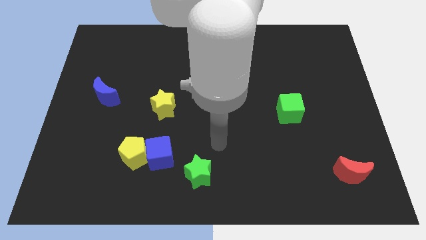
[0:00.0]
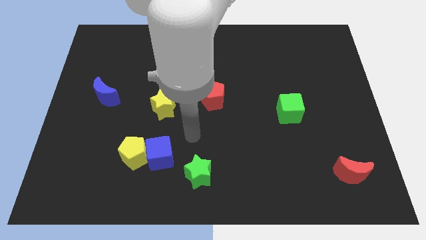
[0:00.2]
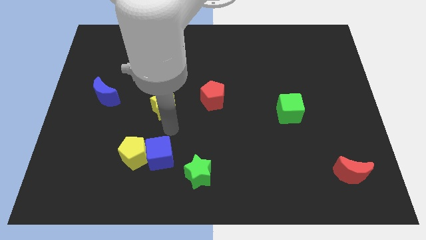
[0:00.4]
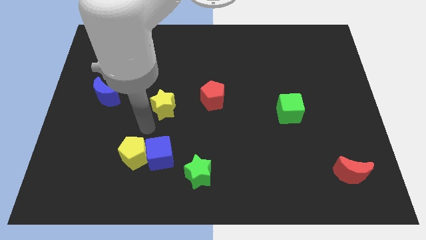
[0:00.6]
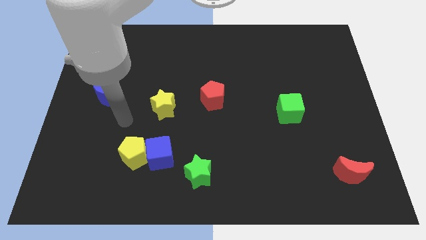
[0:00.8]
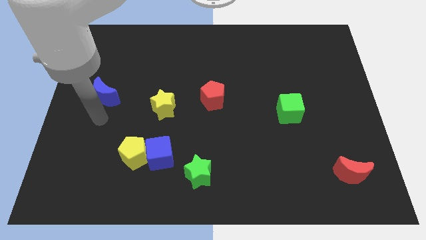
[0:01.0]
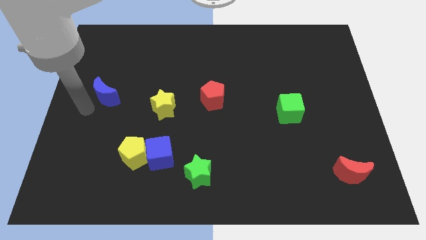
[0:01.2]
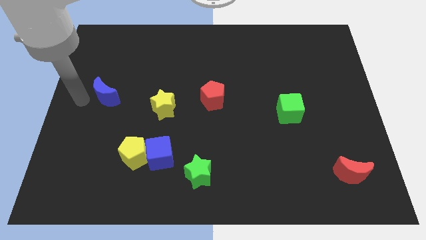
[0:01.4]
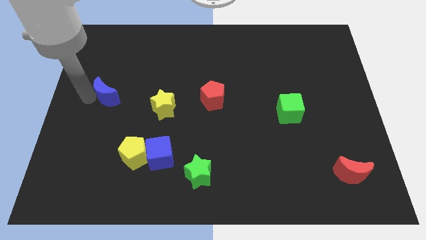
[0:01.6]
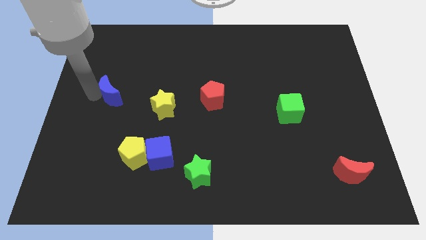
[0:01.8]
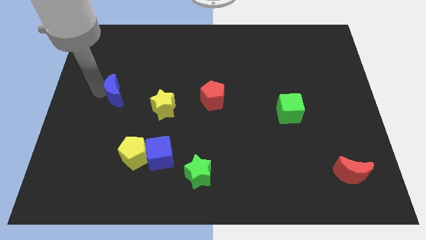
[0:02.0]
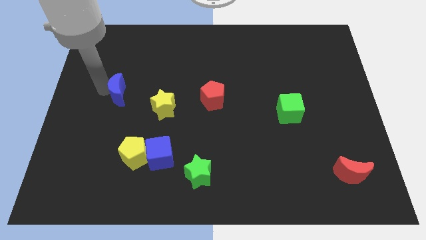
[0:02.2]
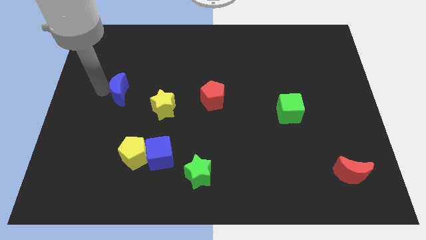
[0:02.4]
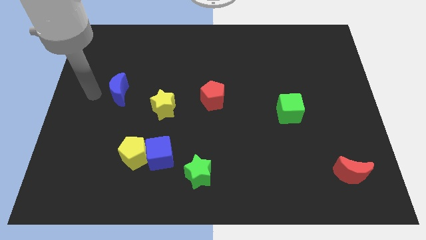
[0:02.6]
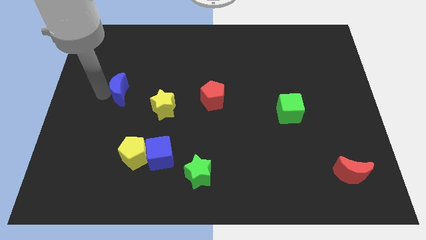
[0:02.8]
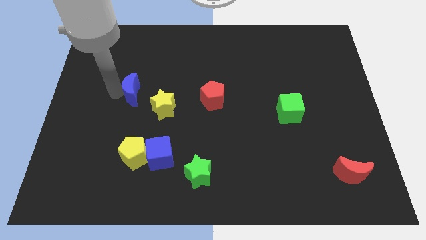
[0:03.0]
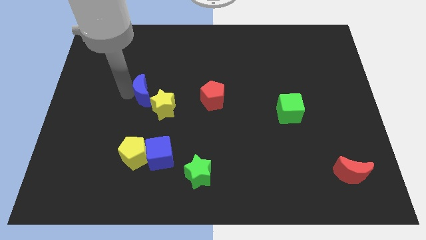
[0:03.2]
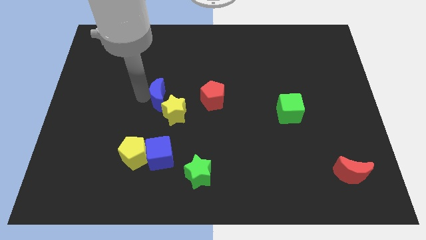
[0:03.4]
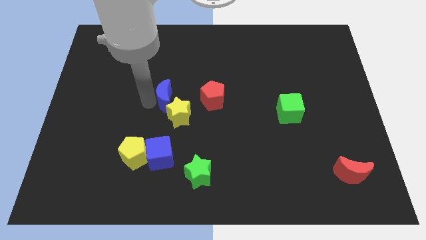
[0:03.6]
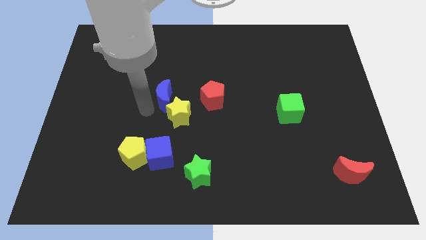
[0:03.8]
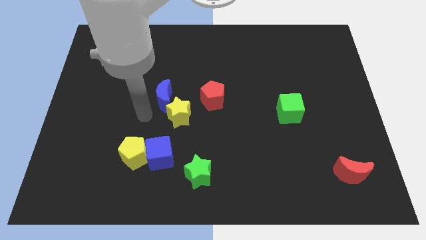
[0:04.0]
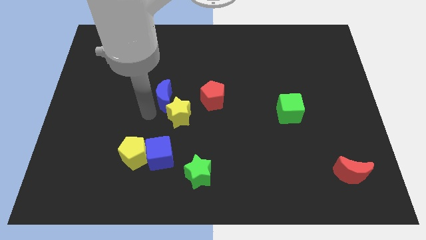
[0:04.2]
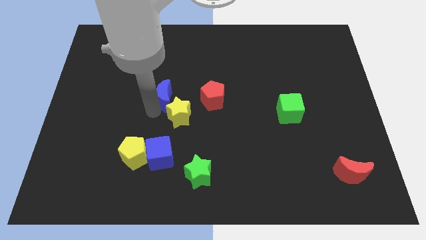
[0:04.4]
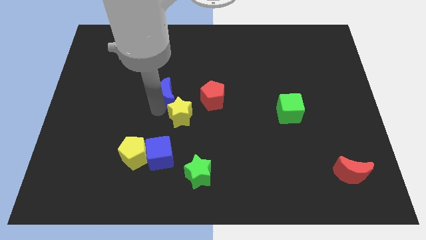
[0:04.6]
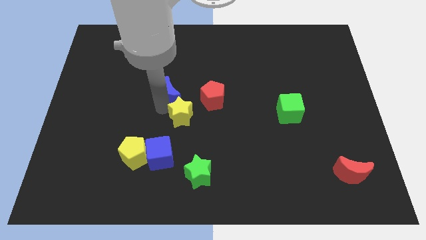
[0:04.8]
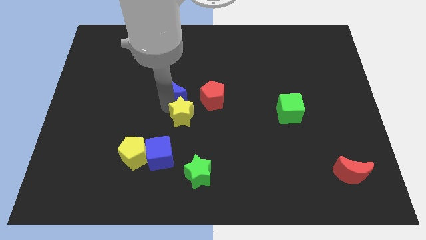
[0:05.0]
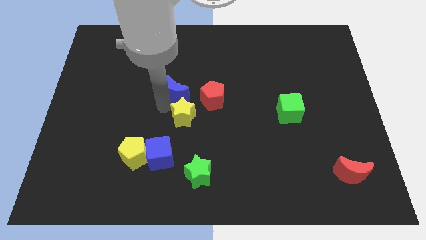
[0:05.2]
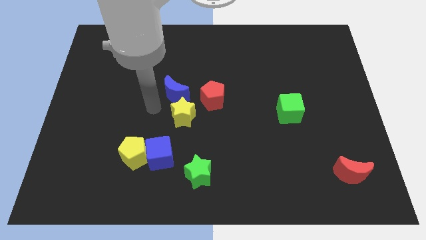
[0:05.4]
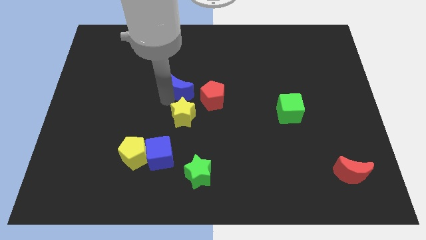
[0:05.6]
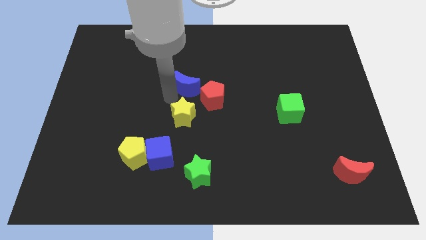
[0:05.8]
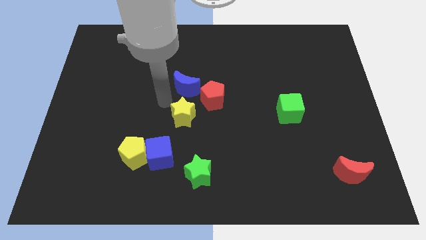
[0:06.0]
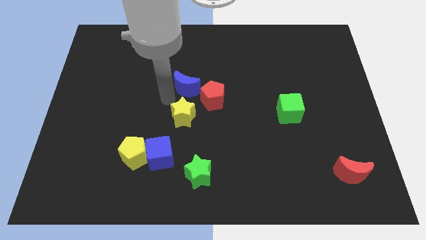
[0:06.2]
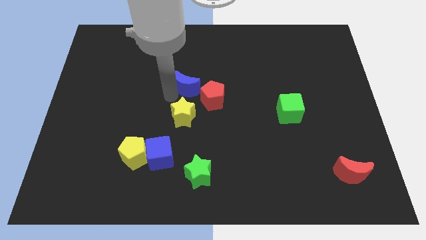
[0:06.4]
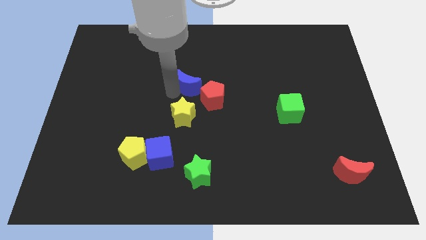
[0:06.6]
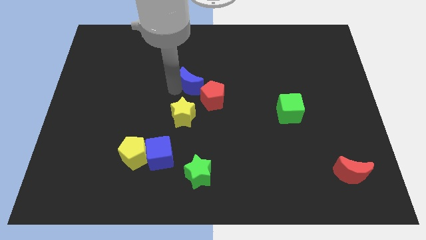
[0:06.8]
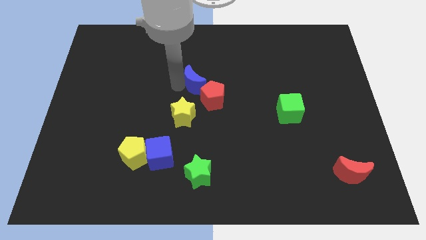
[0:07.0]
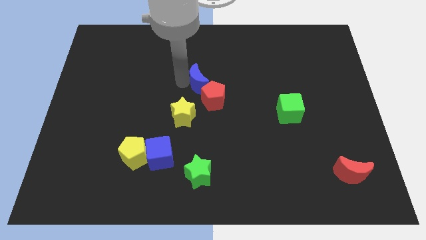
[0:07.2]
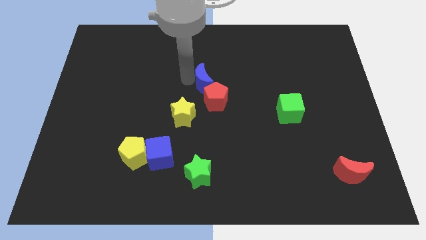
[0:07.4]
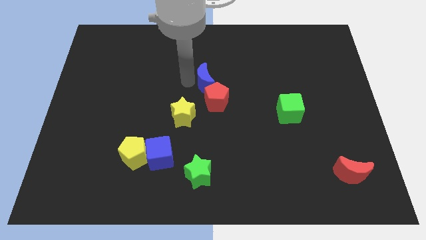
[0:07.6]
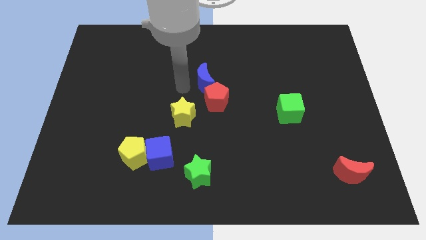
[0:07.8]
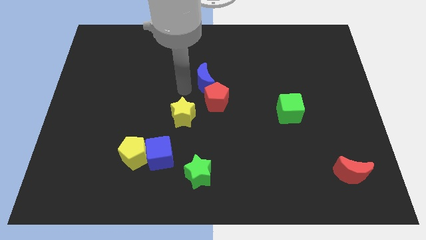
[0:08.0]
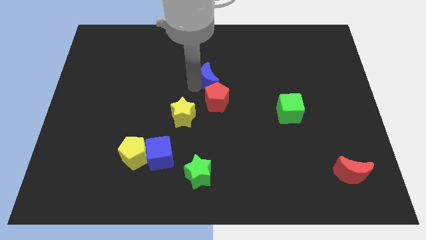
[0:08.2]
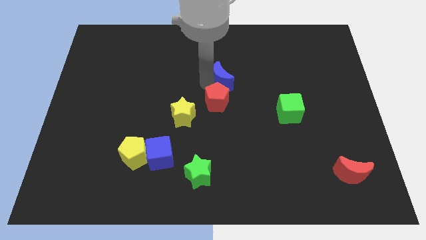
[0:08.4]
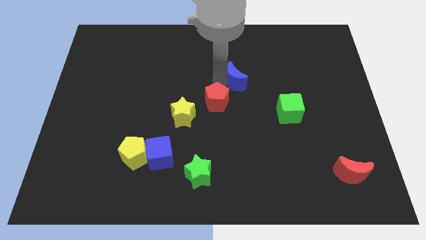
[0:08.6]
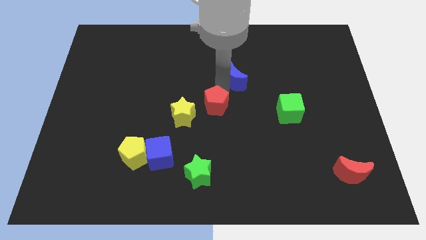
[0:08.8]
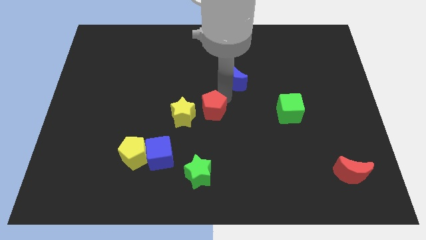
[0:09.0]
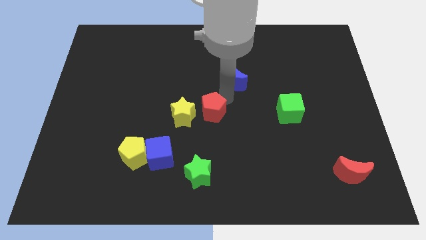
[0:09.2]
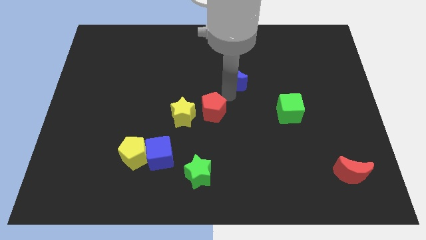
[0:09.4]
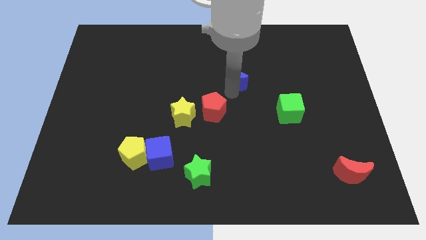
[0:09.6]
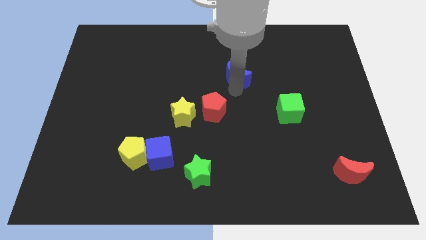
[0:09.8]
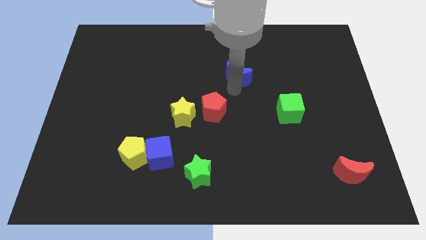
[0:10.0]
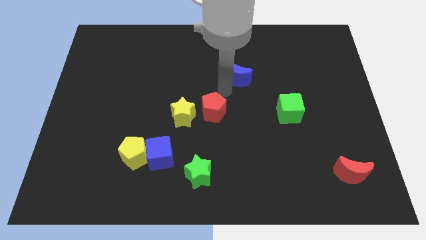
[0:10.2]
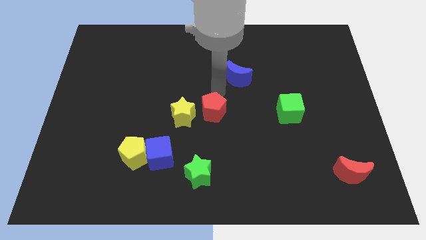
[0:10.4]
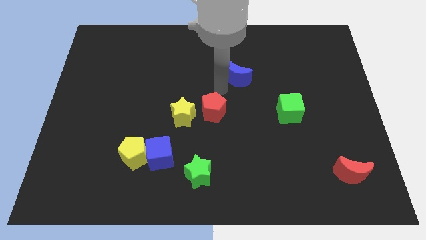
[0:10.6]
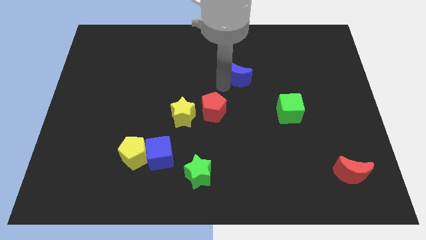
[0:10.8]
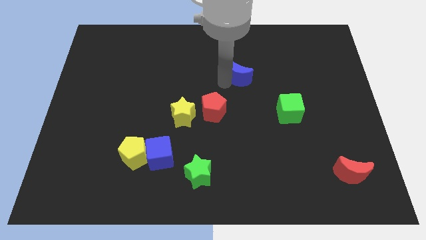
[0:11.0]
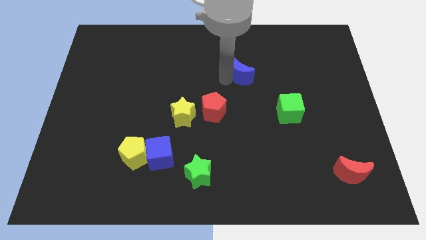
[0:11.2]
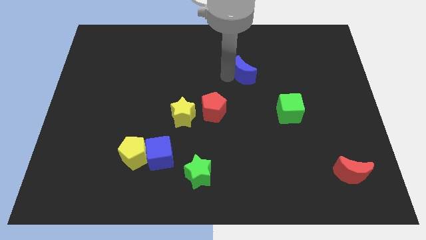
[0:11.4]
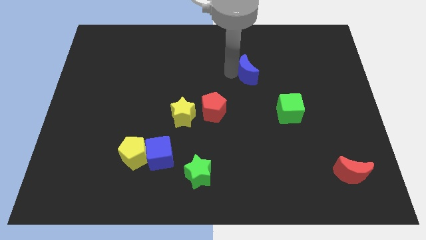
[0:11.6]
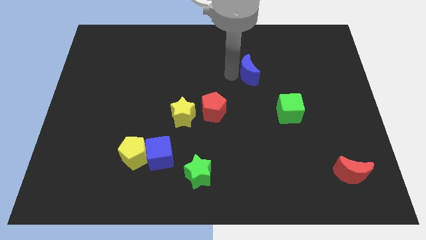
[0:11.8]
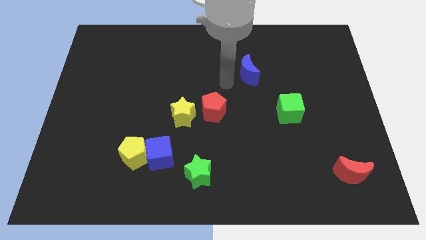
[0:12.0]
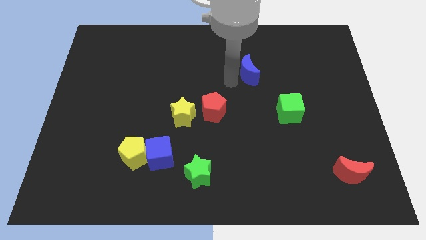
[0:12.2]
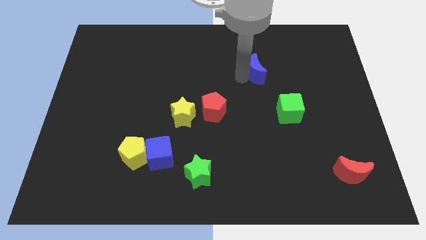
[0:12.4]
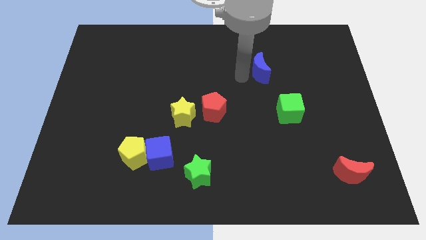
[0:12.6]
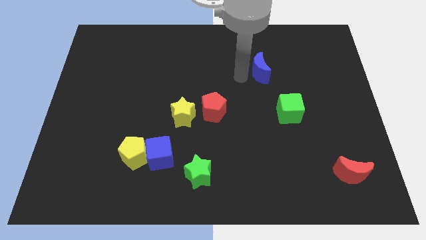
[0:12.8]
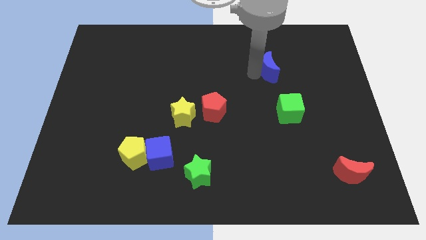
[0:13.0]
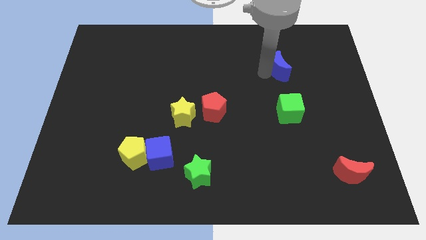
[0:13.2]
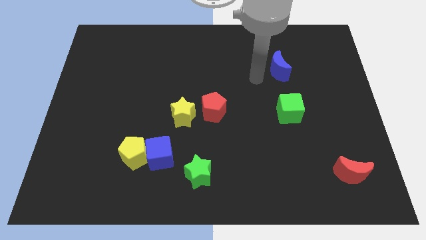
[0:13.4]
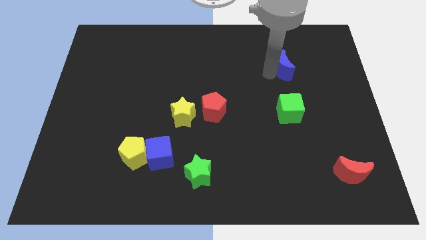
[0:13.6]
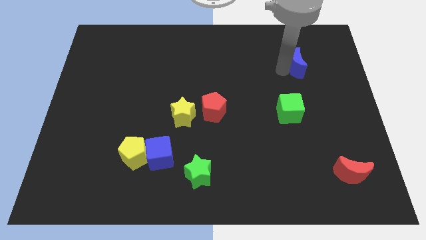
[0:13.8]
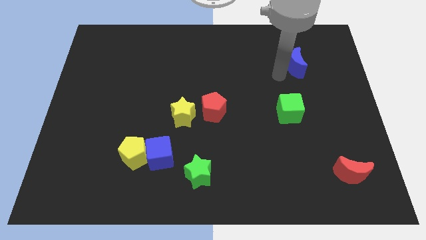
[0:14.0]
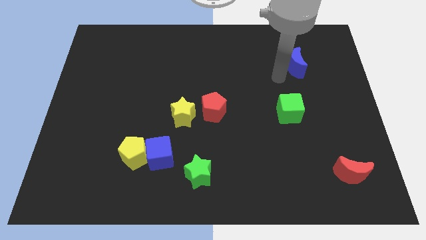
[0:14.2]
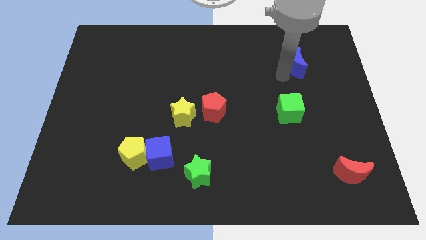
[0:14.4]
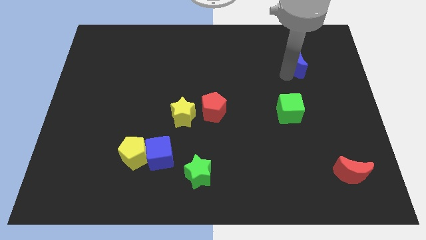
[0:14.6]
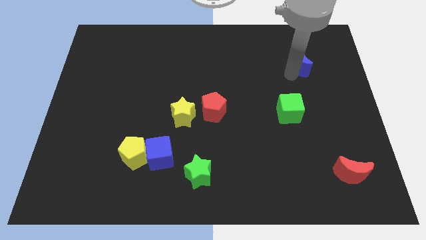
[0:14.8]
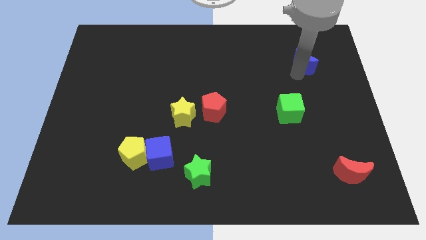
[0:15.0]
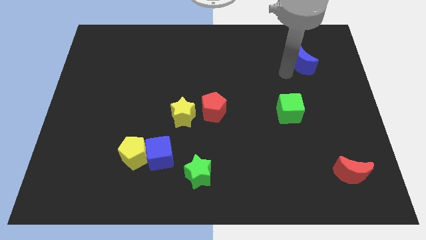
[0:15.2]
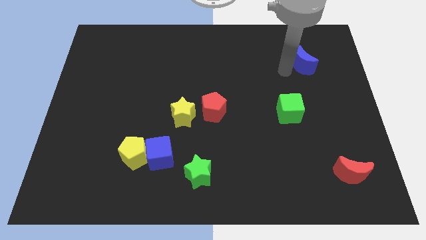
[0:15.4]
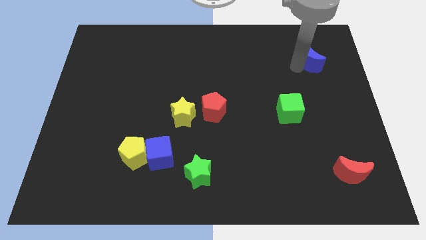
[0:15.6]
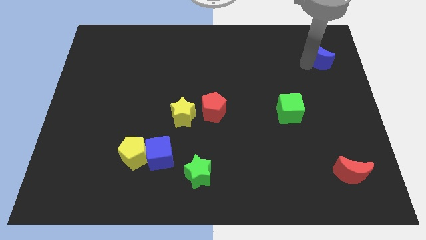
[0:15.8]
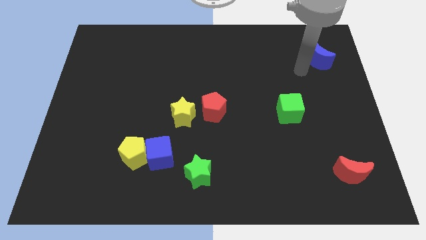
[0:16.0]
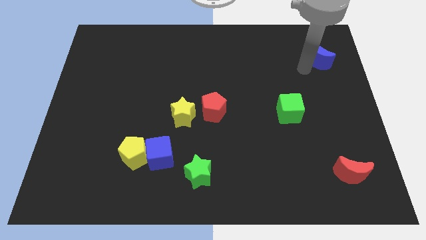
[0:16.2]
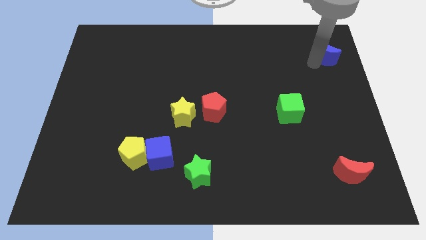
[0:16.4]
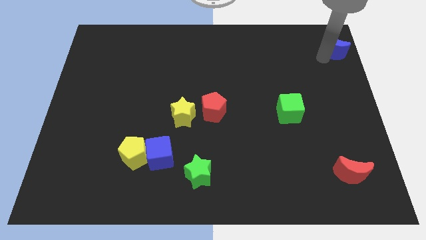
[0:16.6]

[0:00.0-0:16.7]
slide the blue moon to the upper right corner
